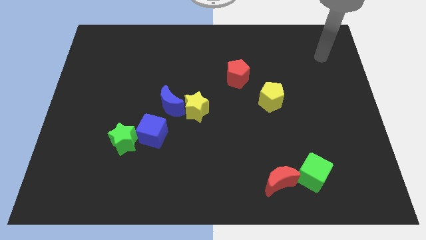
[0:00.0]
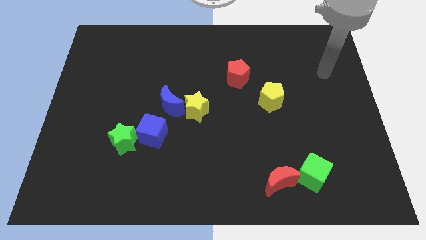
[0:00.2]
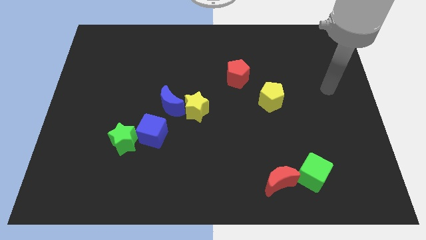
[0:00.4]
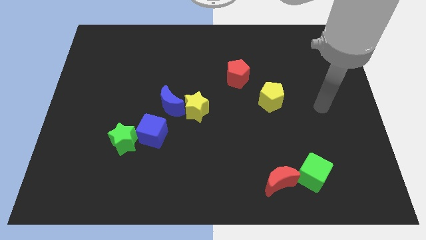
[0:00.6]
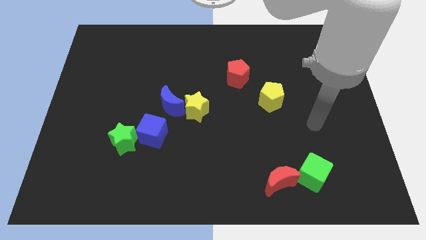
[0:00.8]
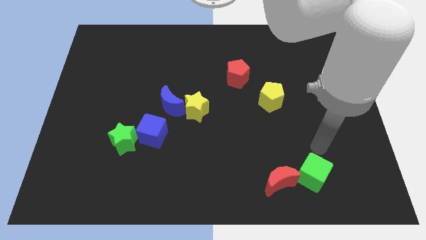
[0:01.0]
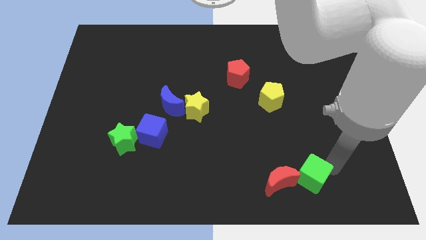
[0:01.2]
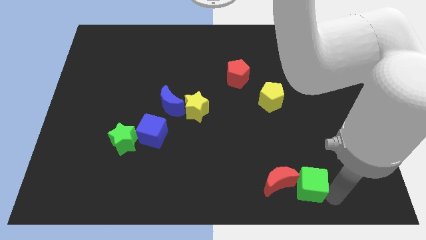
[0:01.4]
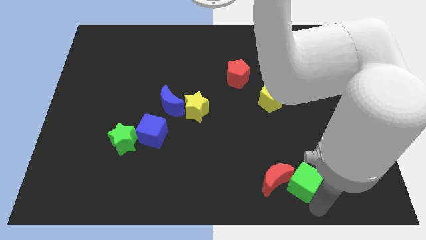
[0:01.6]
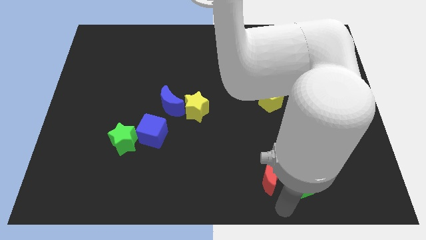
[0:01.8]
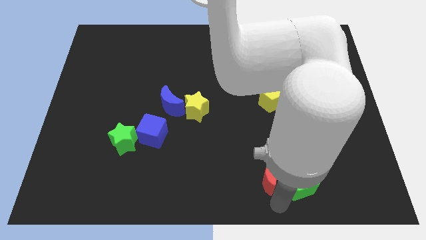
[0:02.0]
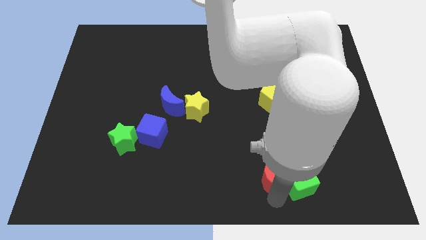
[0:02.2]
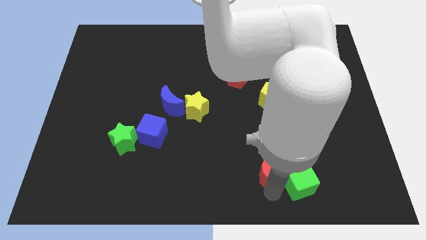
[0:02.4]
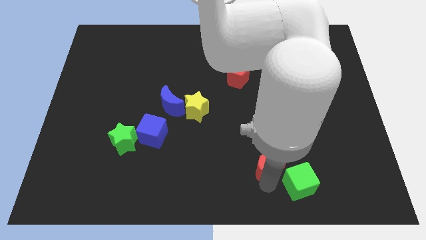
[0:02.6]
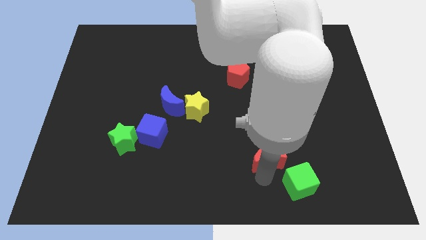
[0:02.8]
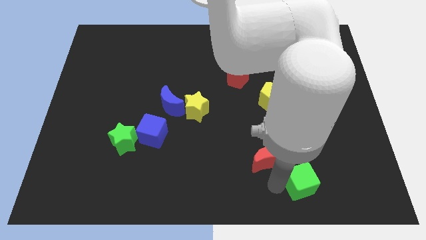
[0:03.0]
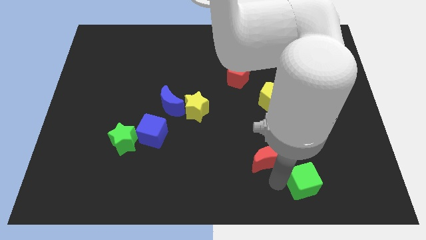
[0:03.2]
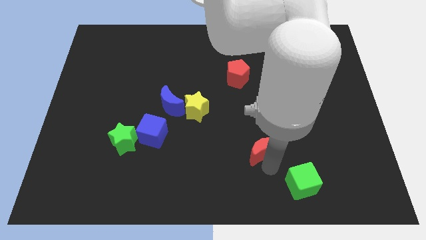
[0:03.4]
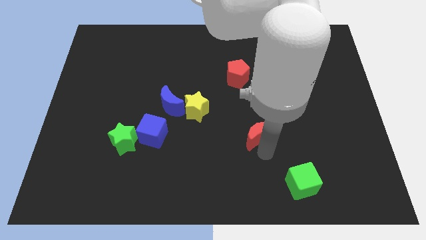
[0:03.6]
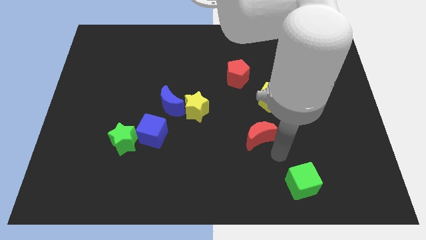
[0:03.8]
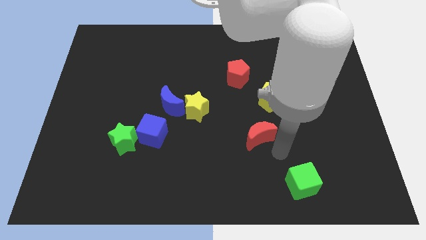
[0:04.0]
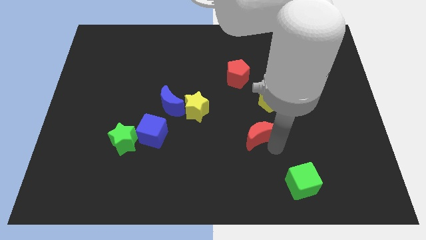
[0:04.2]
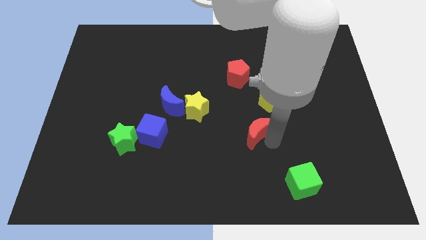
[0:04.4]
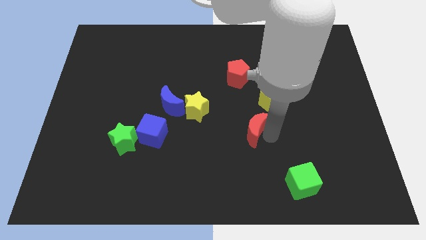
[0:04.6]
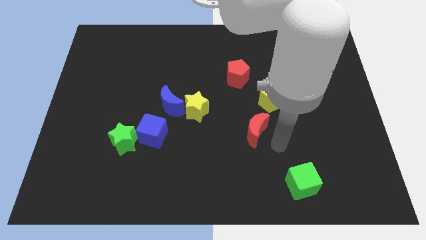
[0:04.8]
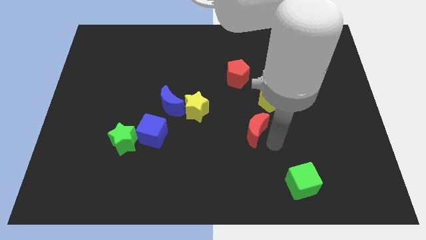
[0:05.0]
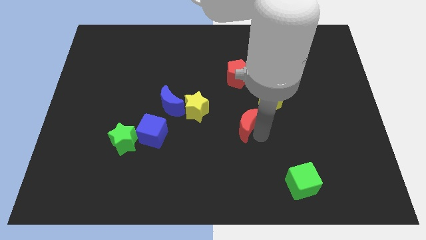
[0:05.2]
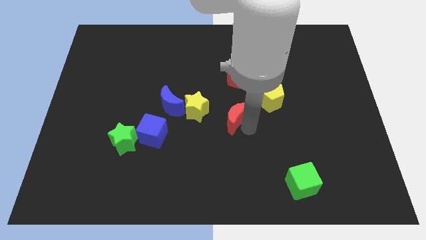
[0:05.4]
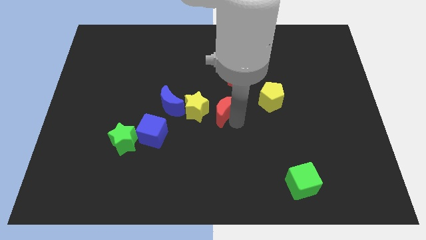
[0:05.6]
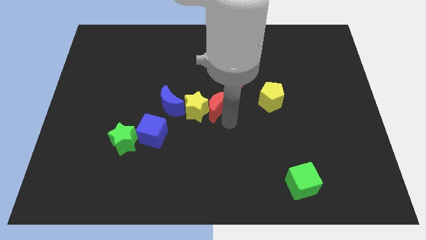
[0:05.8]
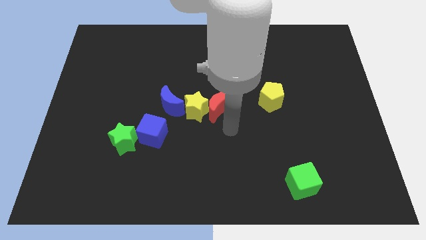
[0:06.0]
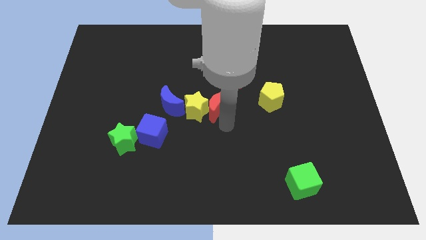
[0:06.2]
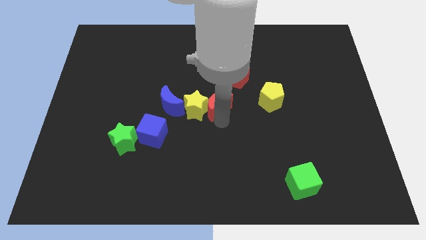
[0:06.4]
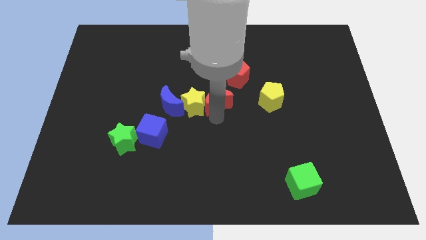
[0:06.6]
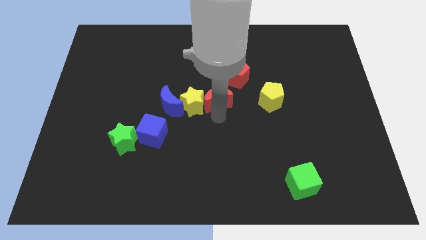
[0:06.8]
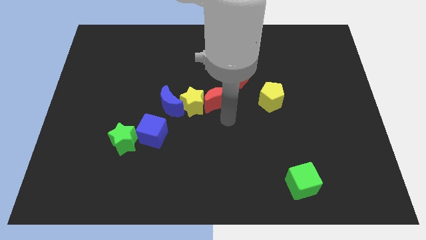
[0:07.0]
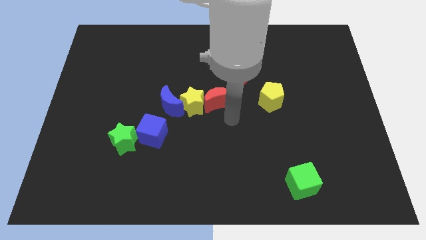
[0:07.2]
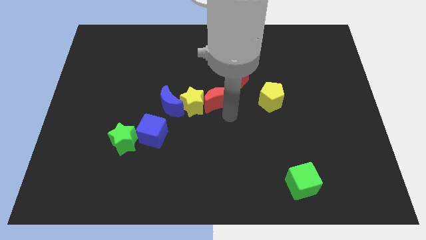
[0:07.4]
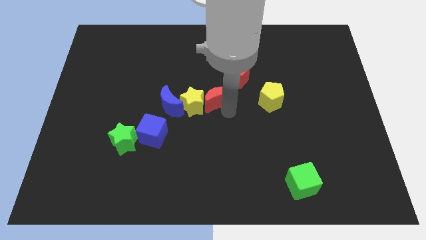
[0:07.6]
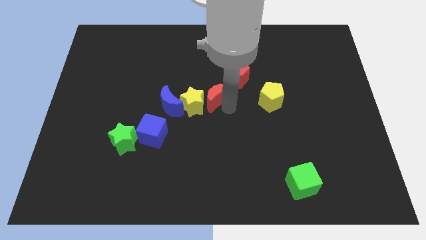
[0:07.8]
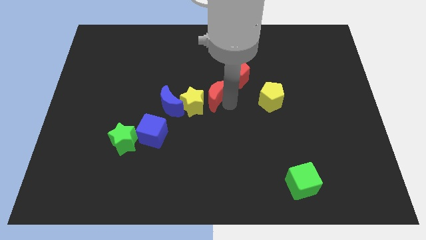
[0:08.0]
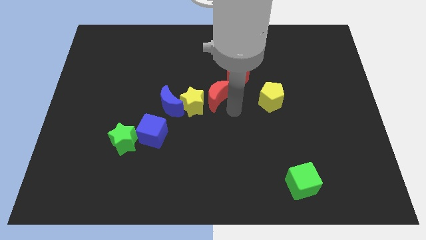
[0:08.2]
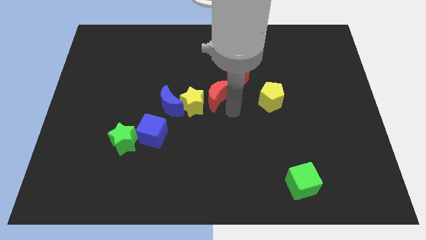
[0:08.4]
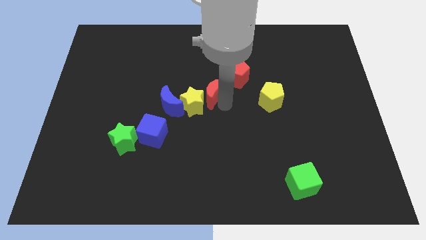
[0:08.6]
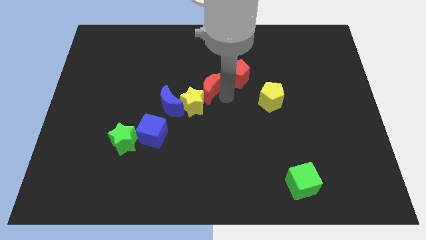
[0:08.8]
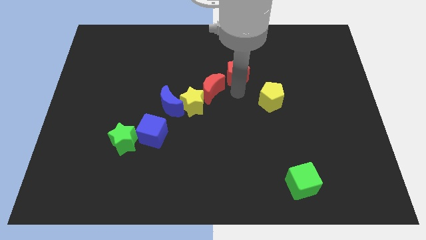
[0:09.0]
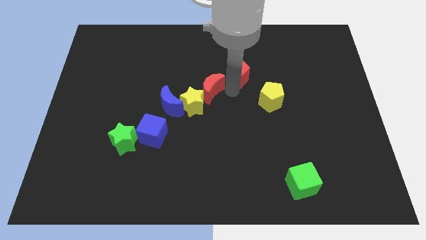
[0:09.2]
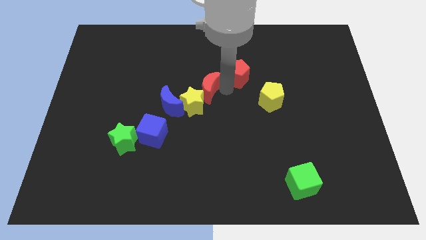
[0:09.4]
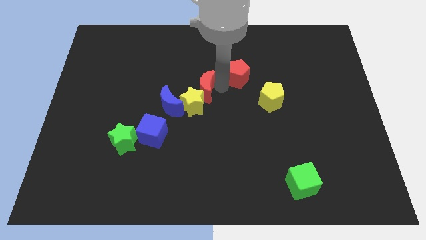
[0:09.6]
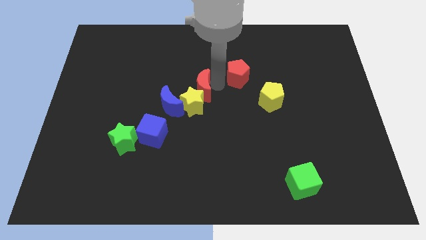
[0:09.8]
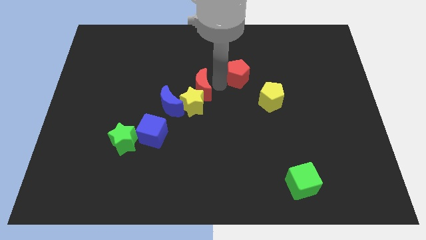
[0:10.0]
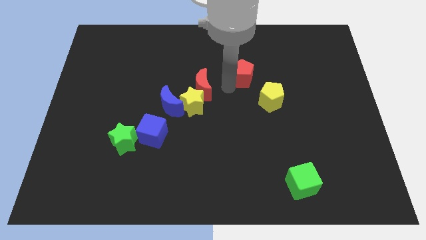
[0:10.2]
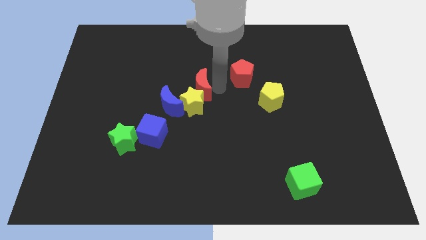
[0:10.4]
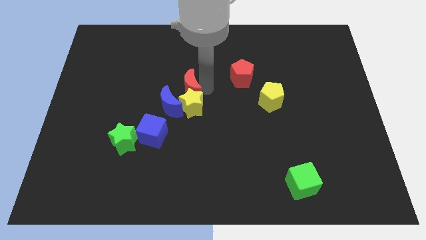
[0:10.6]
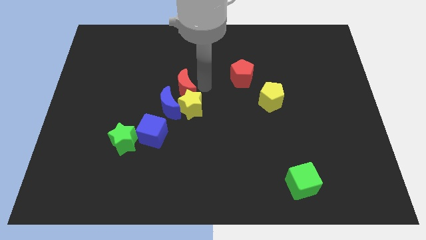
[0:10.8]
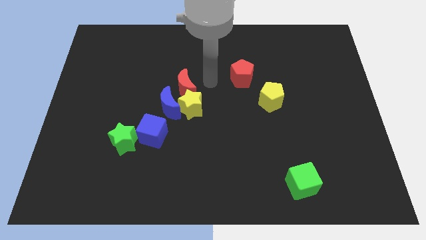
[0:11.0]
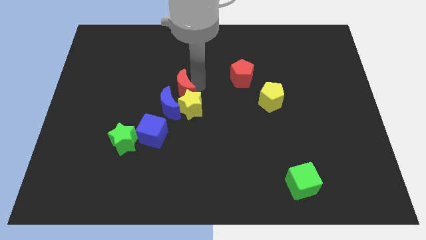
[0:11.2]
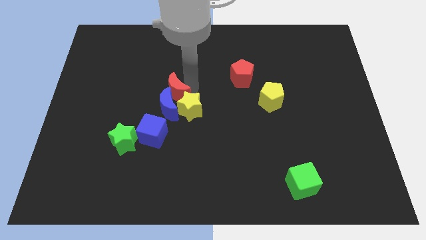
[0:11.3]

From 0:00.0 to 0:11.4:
slide the red moon to the top side of the blue cube

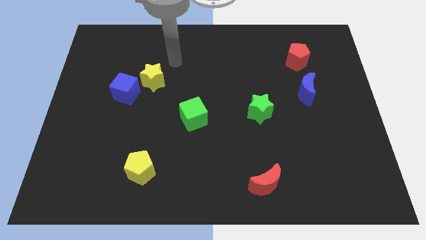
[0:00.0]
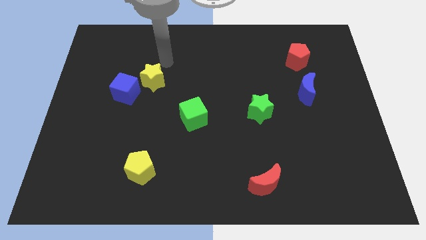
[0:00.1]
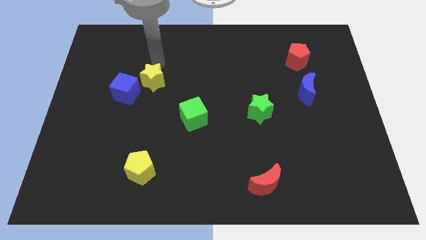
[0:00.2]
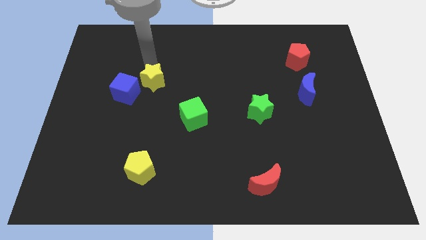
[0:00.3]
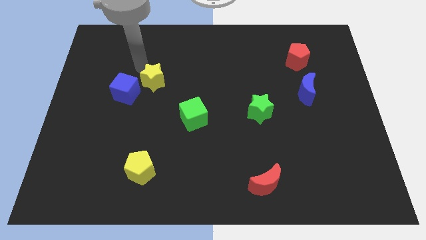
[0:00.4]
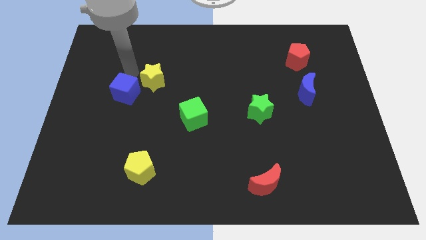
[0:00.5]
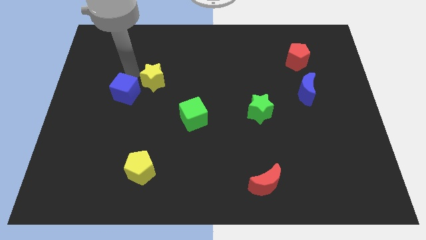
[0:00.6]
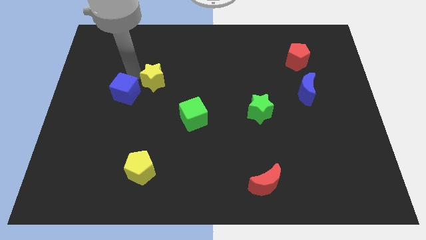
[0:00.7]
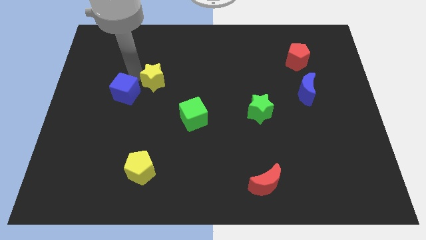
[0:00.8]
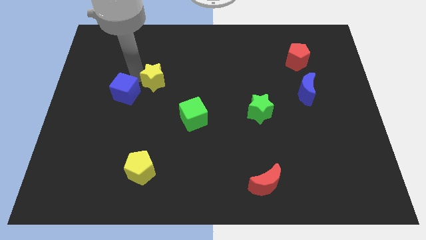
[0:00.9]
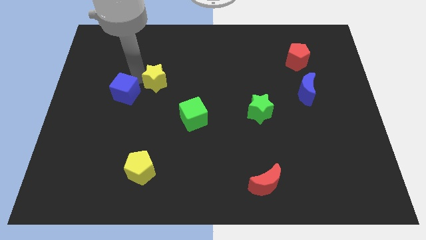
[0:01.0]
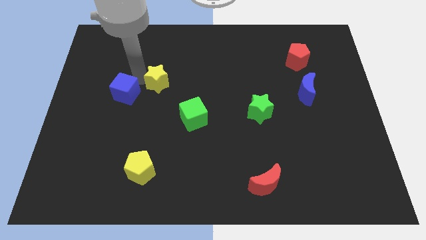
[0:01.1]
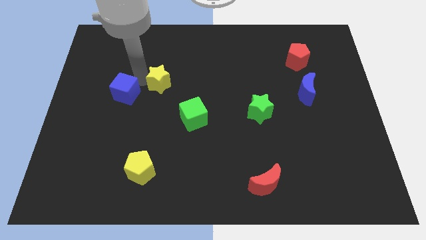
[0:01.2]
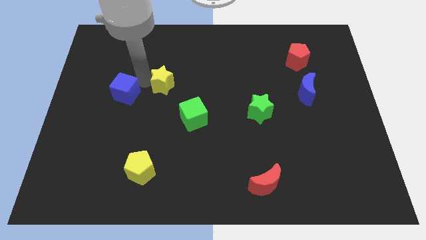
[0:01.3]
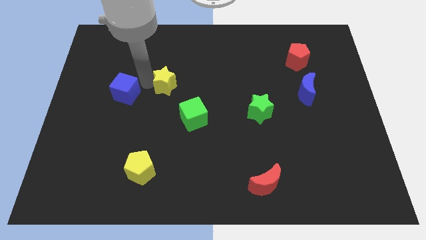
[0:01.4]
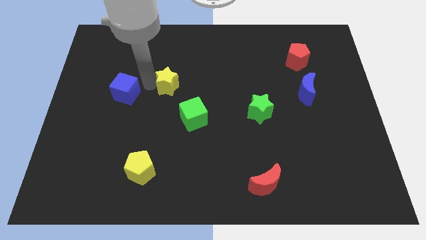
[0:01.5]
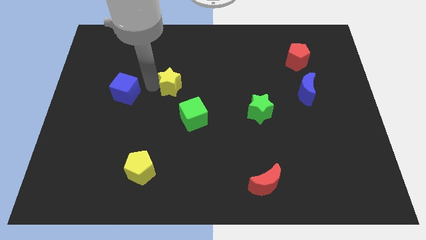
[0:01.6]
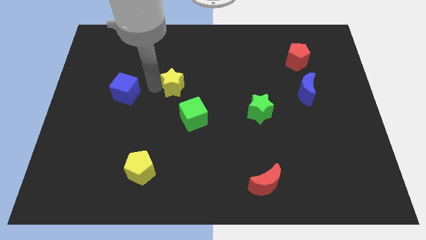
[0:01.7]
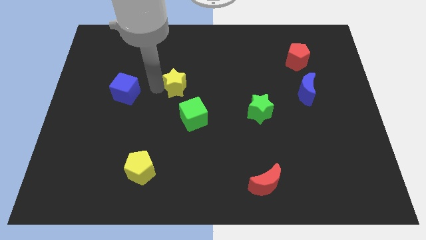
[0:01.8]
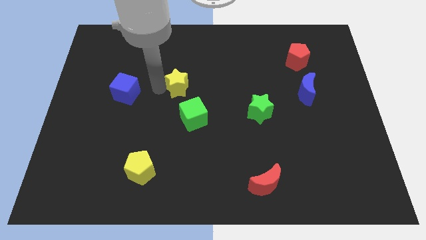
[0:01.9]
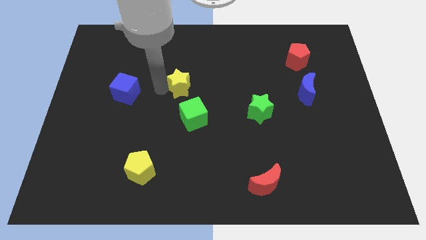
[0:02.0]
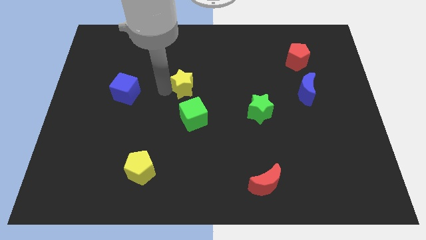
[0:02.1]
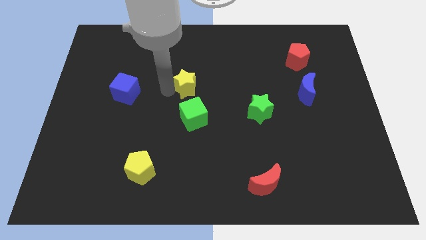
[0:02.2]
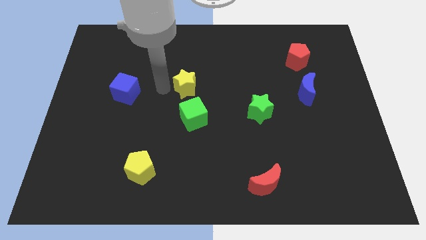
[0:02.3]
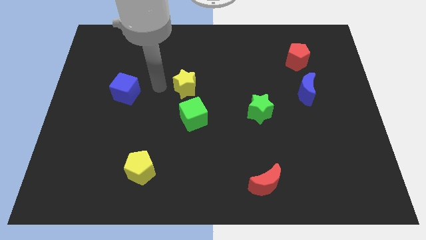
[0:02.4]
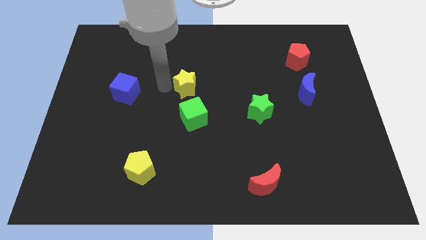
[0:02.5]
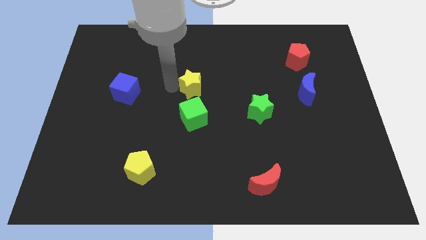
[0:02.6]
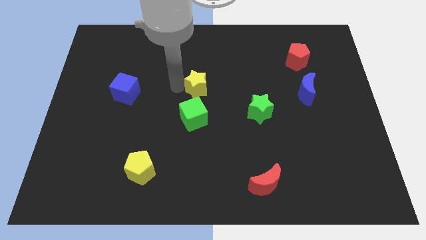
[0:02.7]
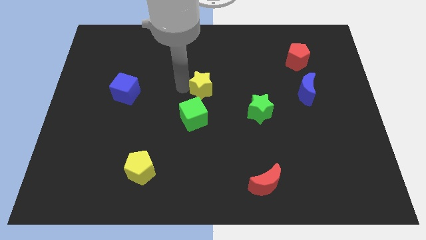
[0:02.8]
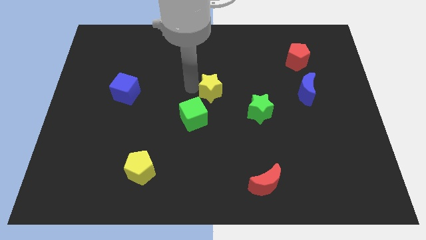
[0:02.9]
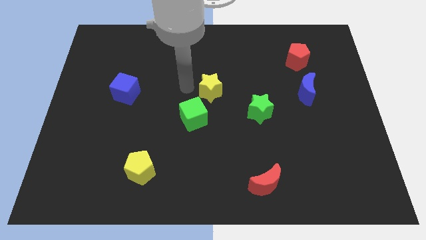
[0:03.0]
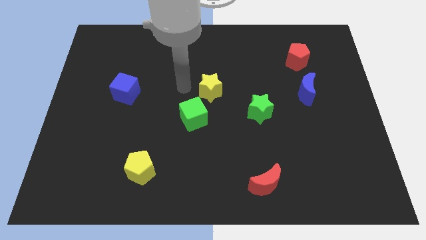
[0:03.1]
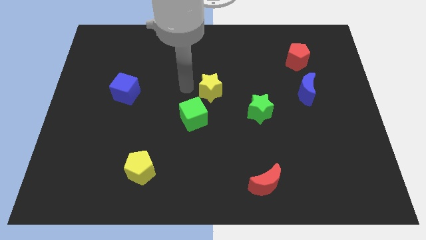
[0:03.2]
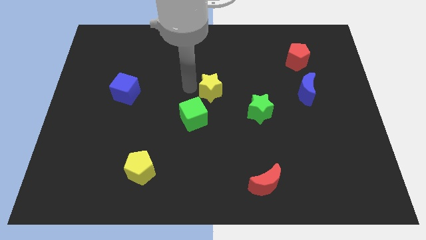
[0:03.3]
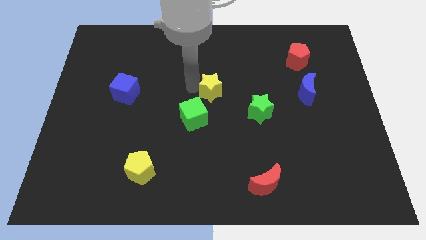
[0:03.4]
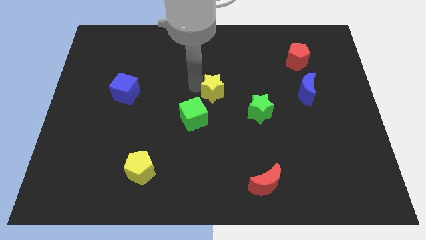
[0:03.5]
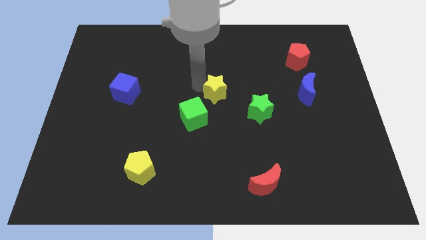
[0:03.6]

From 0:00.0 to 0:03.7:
put the yellow star diagonally up and to the left of the green star
